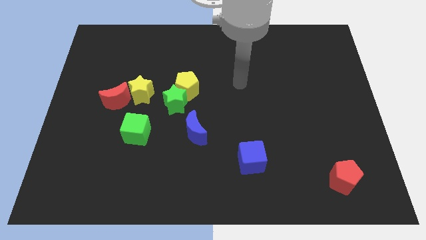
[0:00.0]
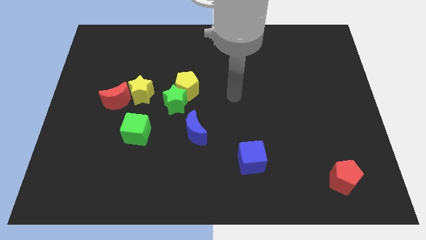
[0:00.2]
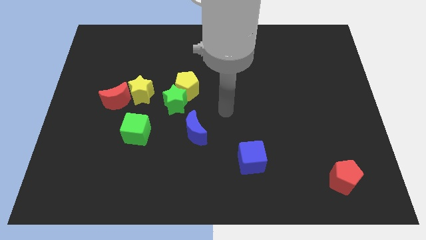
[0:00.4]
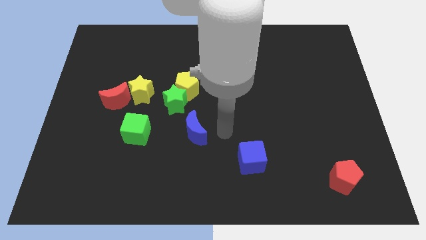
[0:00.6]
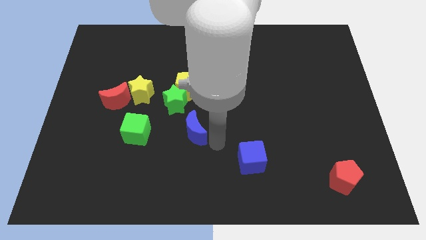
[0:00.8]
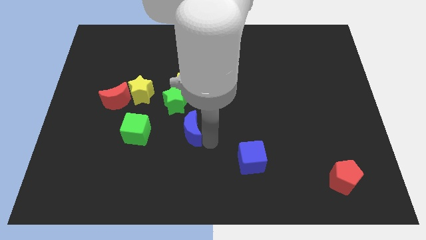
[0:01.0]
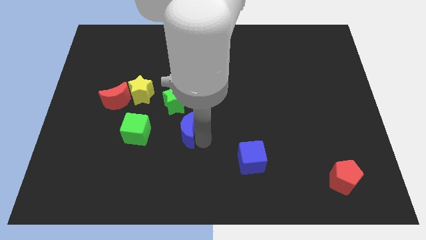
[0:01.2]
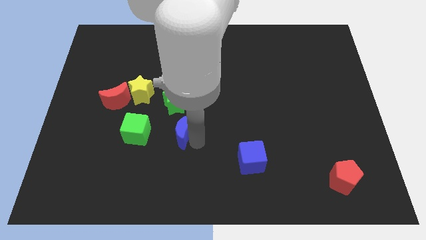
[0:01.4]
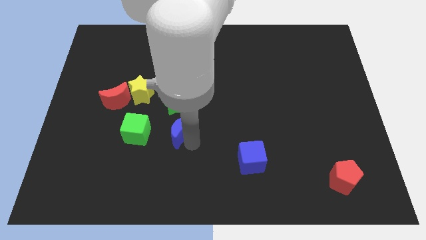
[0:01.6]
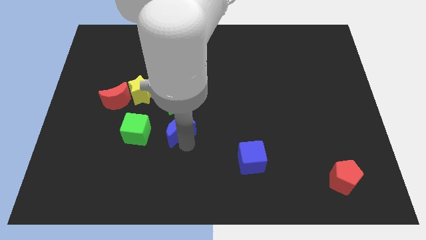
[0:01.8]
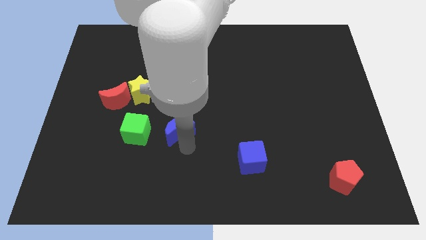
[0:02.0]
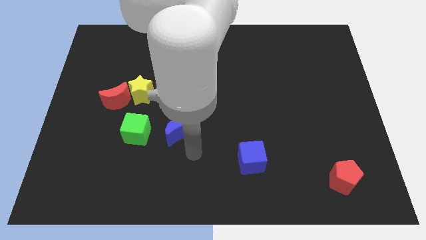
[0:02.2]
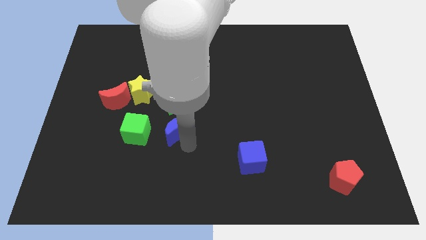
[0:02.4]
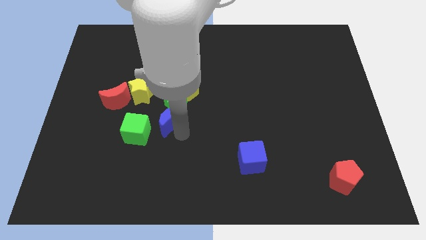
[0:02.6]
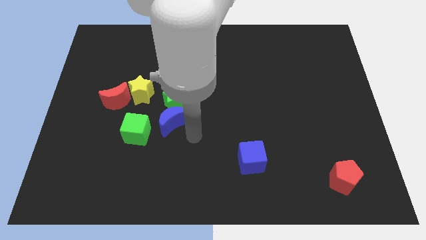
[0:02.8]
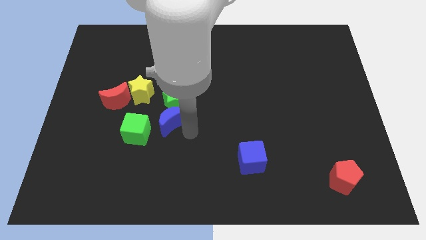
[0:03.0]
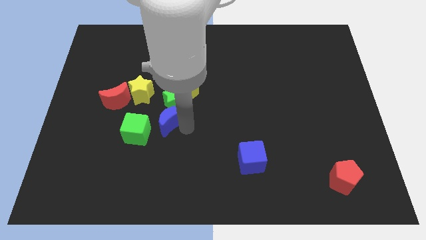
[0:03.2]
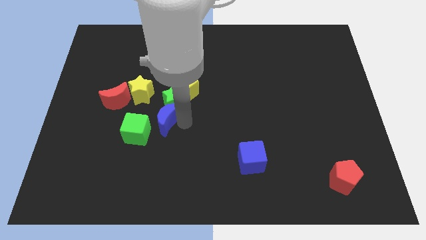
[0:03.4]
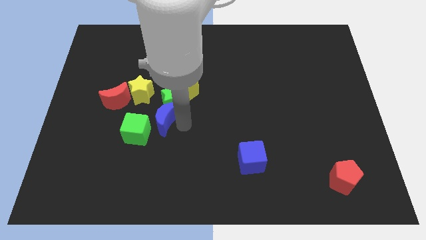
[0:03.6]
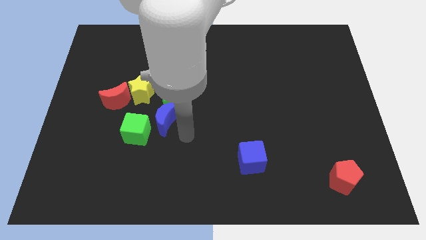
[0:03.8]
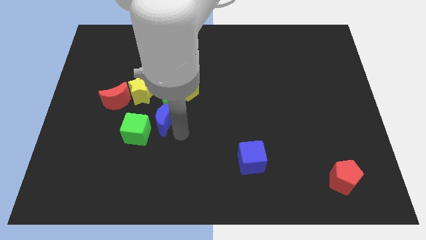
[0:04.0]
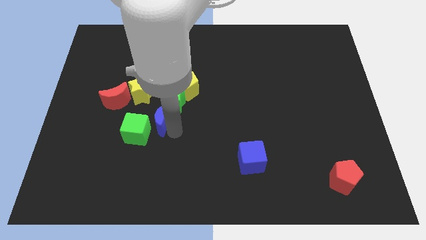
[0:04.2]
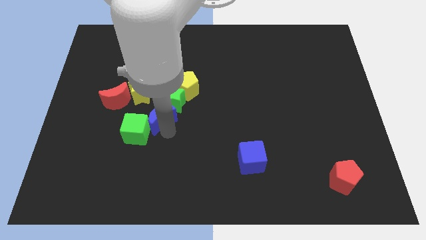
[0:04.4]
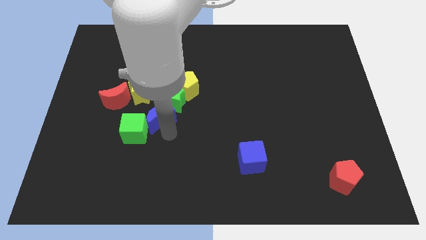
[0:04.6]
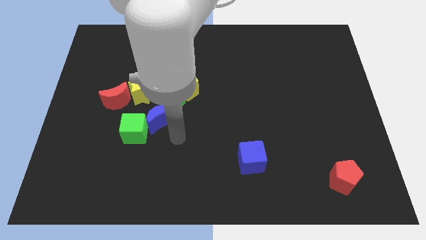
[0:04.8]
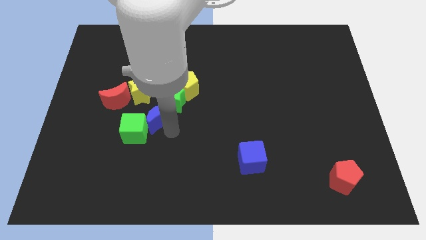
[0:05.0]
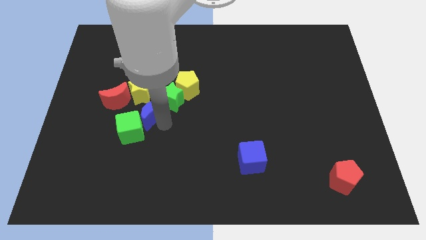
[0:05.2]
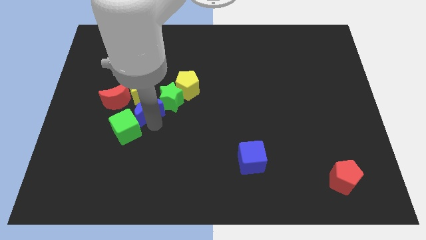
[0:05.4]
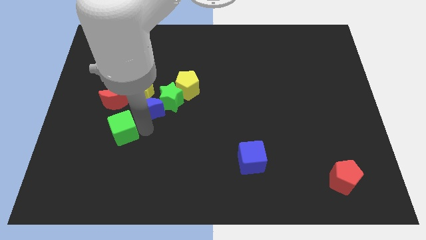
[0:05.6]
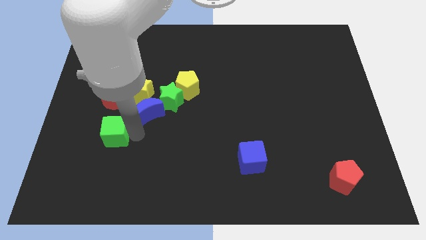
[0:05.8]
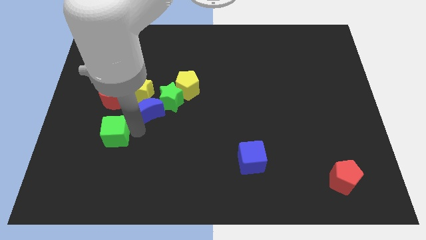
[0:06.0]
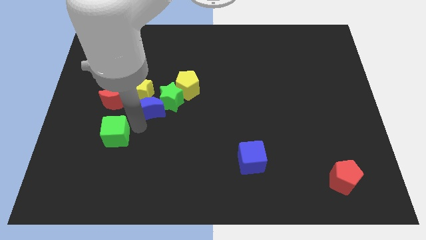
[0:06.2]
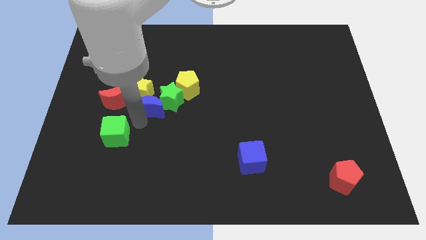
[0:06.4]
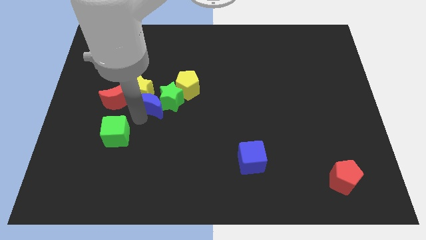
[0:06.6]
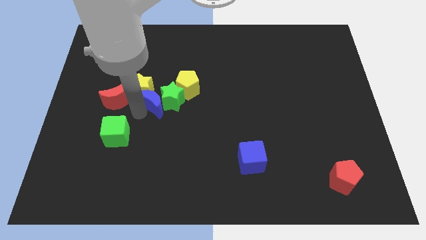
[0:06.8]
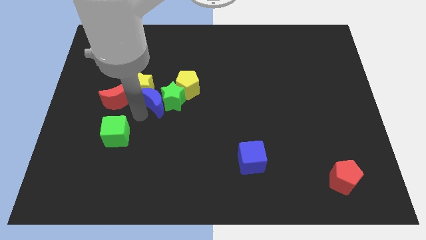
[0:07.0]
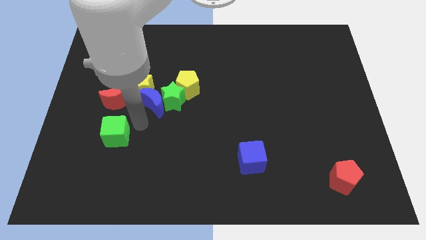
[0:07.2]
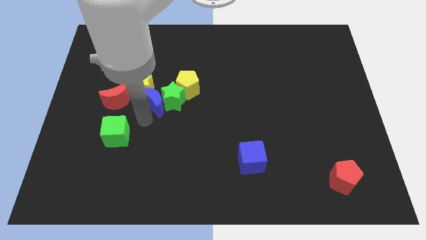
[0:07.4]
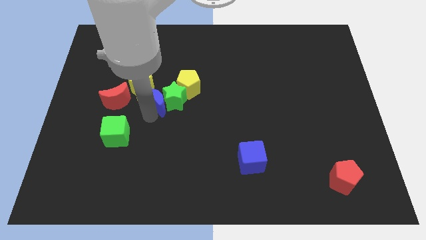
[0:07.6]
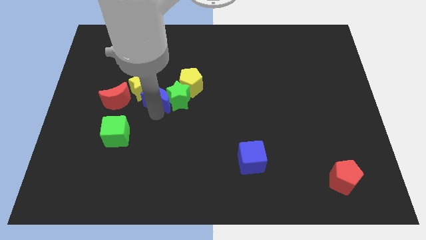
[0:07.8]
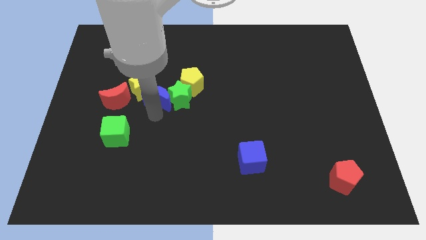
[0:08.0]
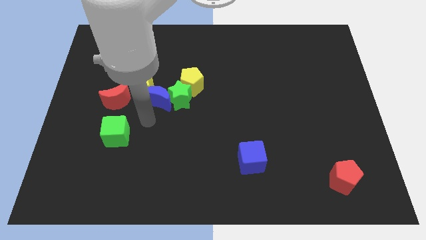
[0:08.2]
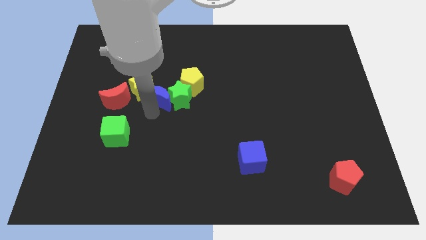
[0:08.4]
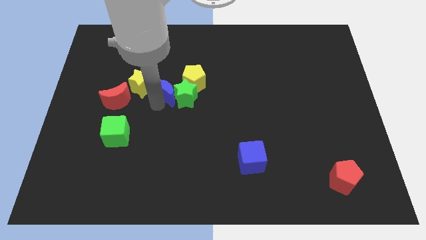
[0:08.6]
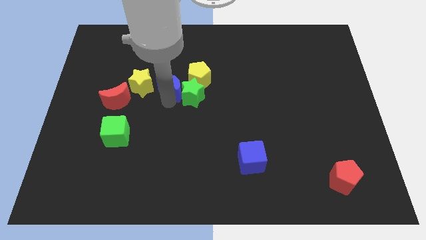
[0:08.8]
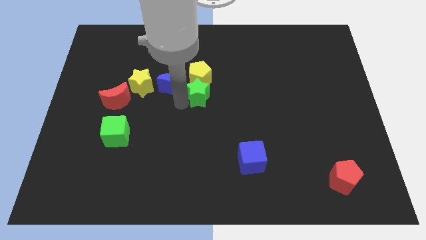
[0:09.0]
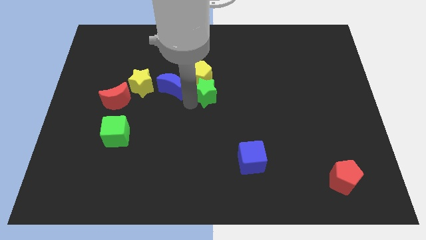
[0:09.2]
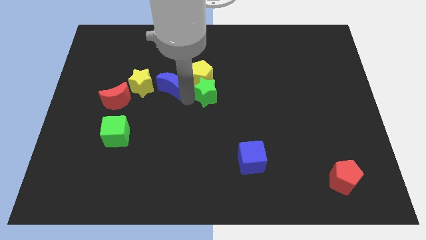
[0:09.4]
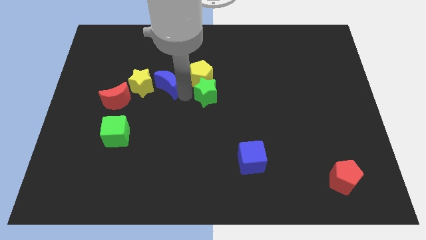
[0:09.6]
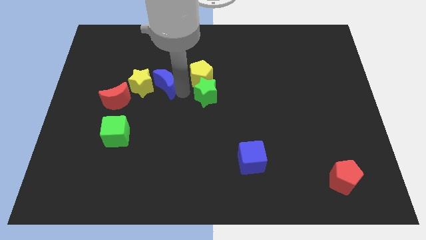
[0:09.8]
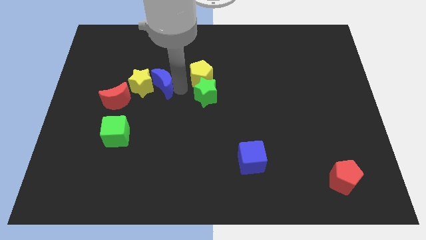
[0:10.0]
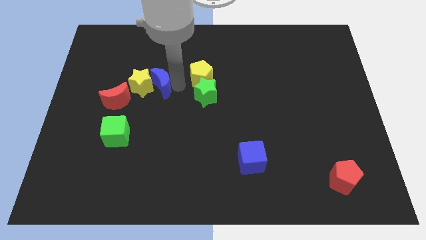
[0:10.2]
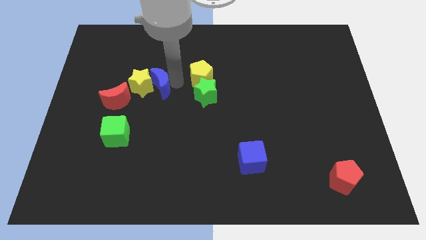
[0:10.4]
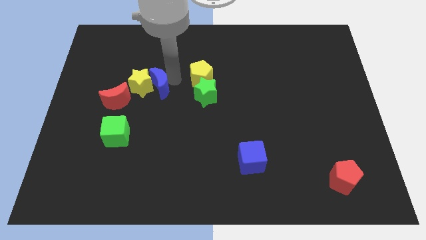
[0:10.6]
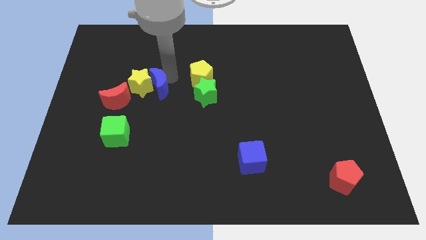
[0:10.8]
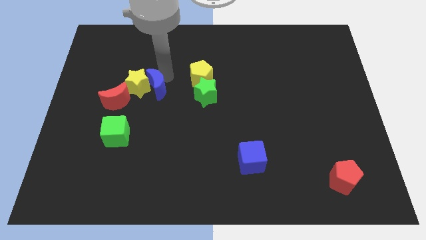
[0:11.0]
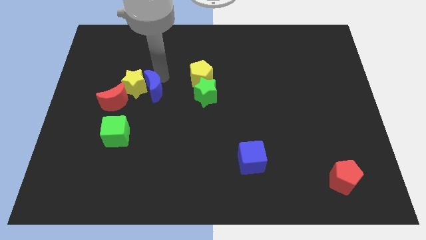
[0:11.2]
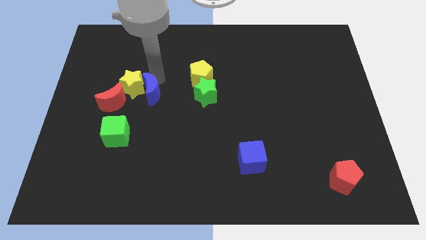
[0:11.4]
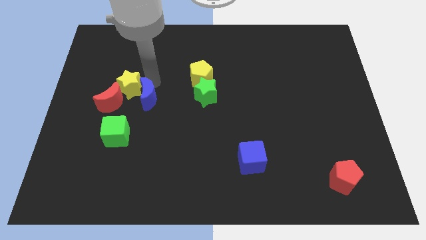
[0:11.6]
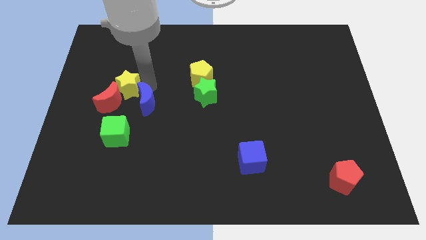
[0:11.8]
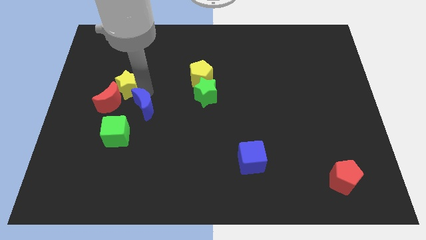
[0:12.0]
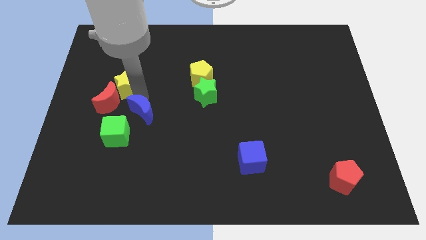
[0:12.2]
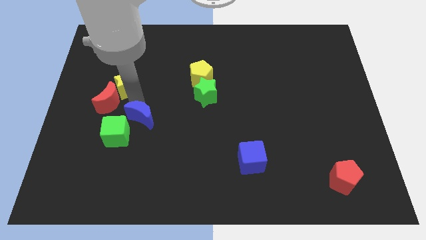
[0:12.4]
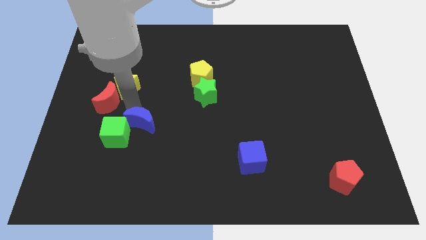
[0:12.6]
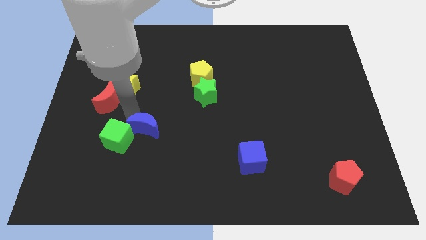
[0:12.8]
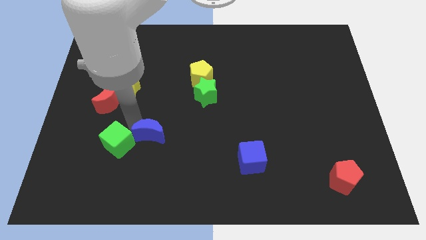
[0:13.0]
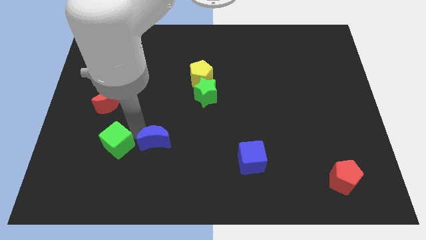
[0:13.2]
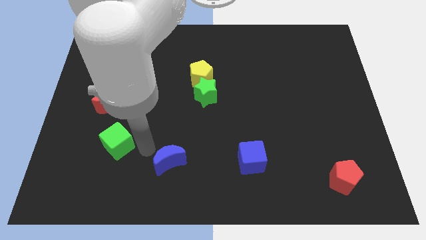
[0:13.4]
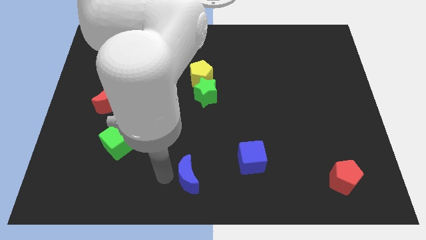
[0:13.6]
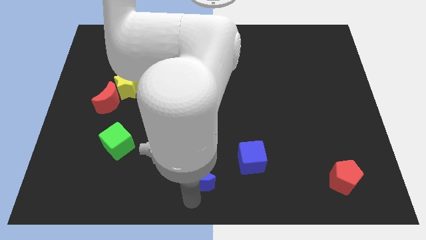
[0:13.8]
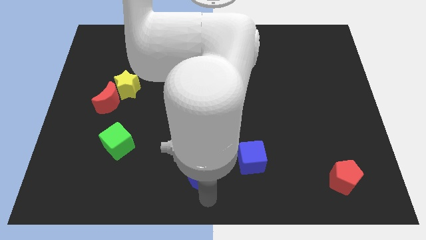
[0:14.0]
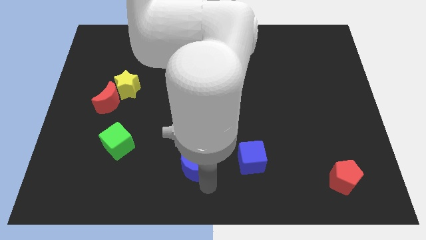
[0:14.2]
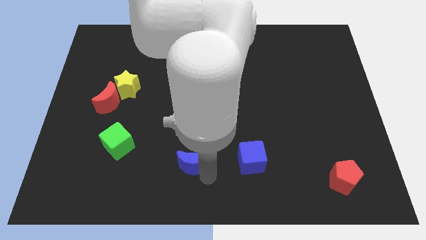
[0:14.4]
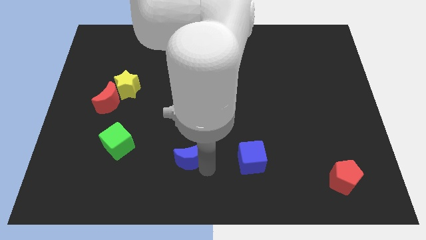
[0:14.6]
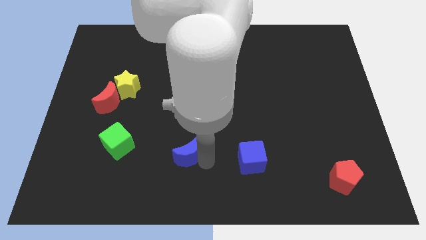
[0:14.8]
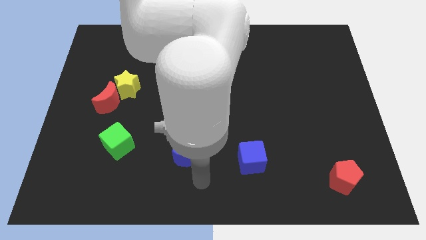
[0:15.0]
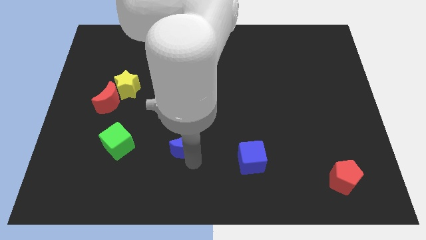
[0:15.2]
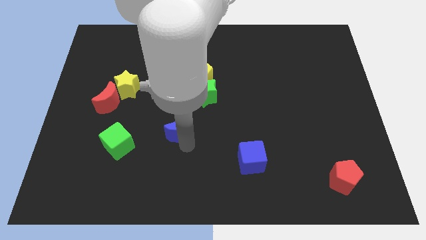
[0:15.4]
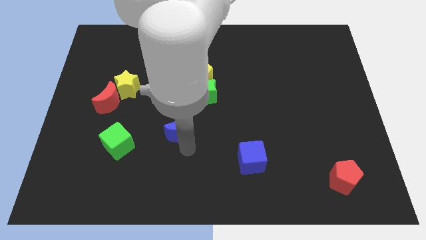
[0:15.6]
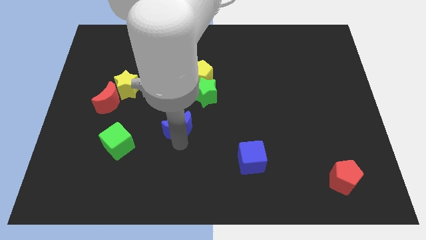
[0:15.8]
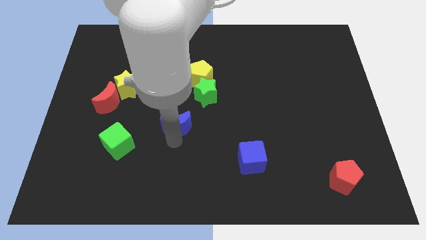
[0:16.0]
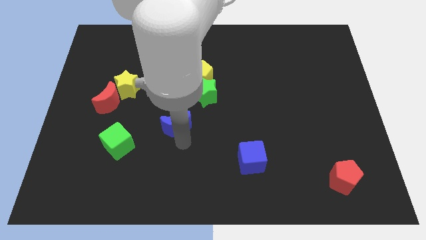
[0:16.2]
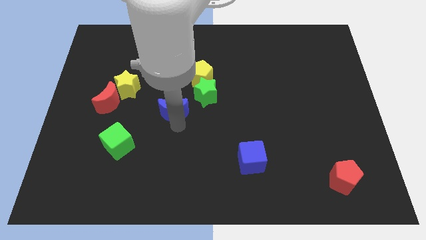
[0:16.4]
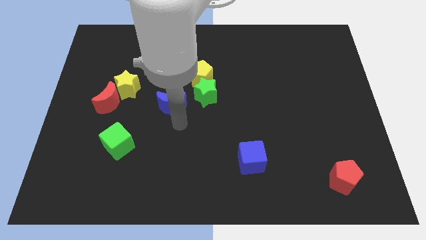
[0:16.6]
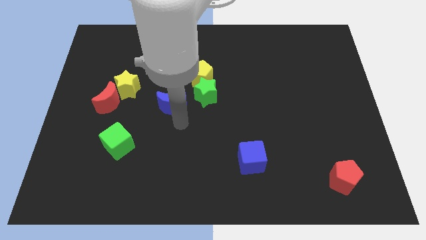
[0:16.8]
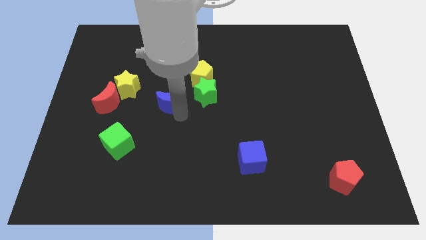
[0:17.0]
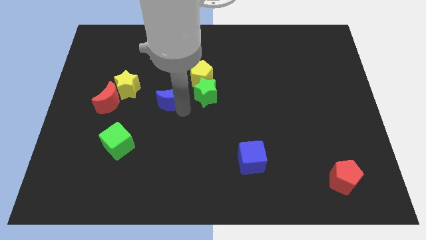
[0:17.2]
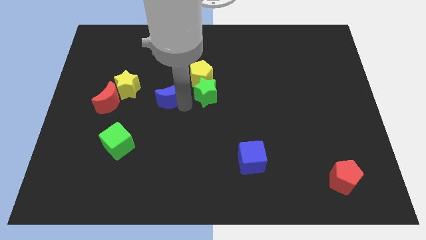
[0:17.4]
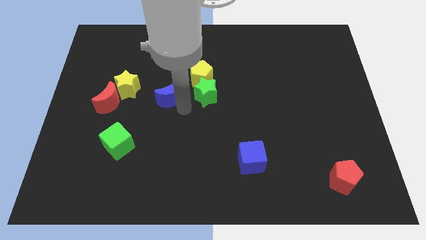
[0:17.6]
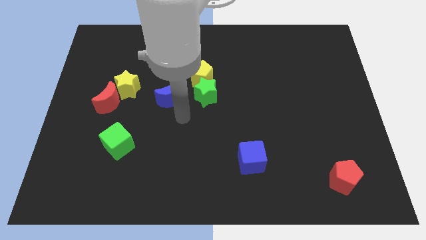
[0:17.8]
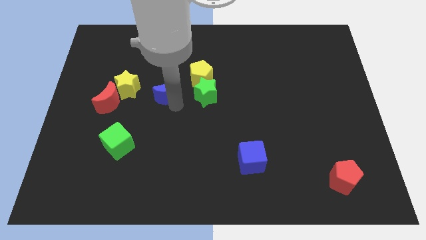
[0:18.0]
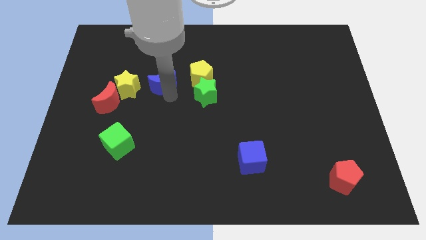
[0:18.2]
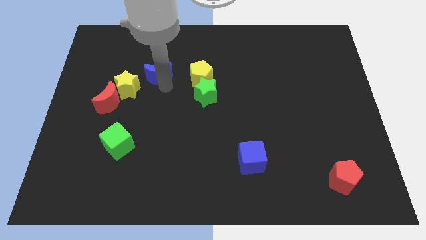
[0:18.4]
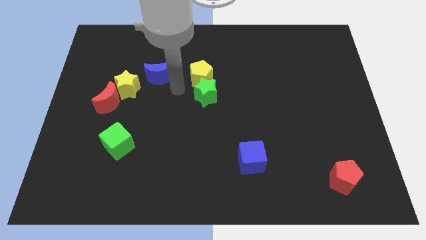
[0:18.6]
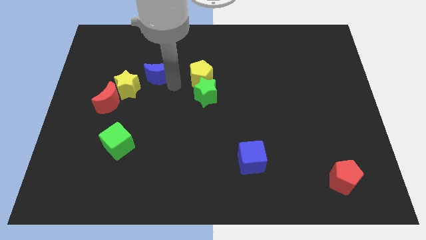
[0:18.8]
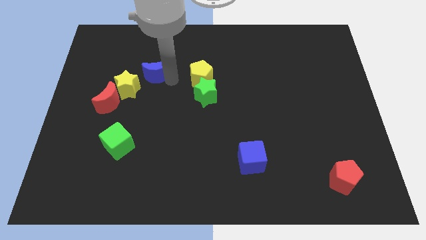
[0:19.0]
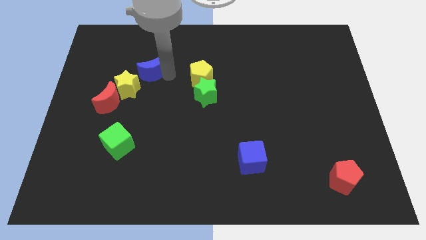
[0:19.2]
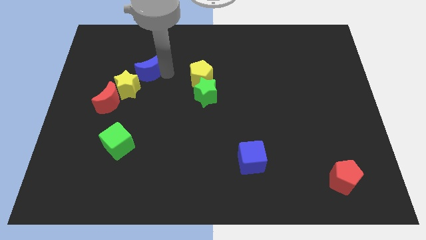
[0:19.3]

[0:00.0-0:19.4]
put the blue moon above the yellow star
